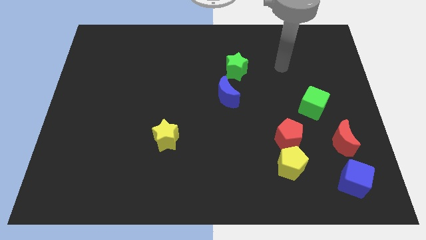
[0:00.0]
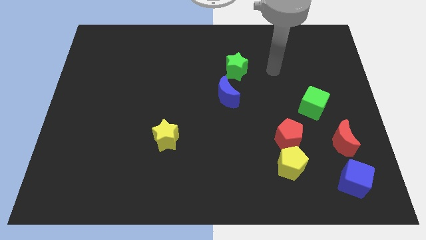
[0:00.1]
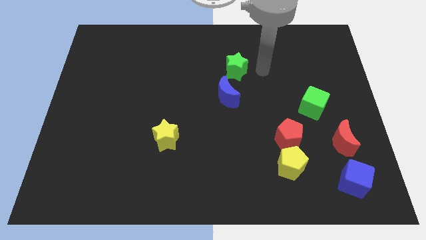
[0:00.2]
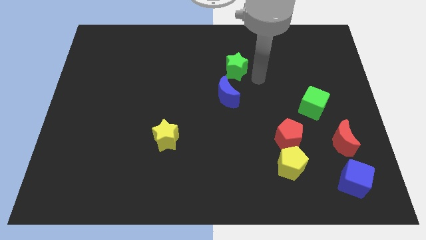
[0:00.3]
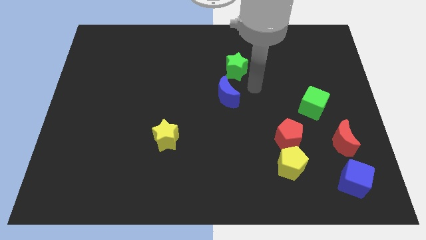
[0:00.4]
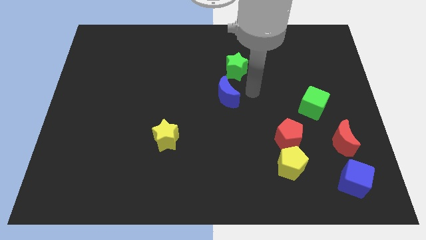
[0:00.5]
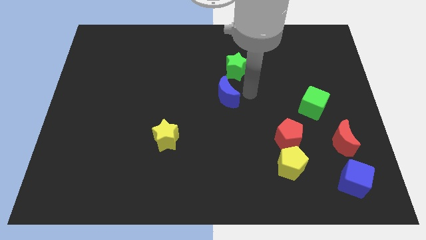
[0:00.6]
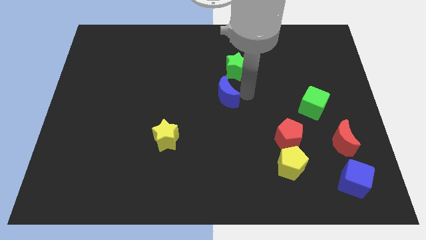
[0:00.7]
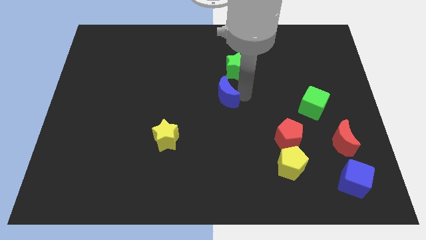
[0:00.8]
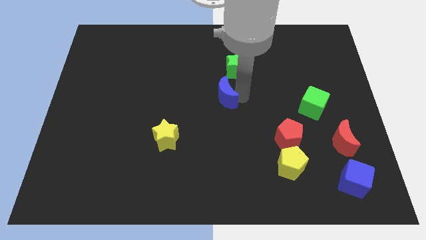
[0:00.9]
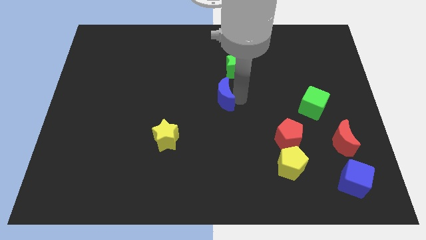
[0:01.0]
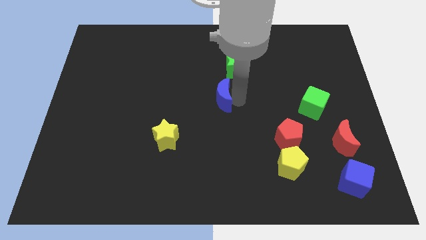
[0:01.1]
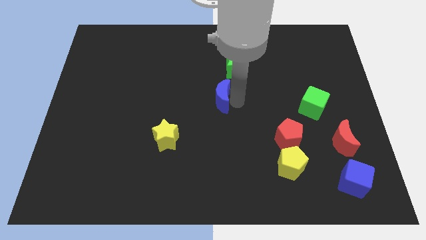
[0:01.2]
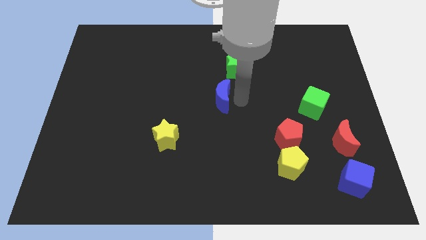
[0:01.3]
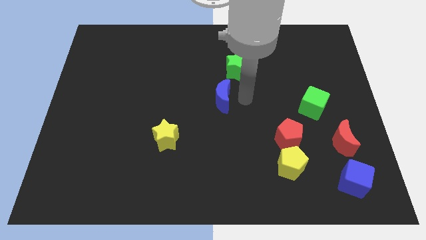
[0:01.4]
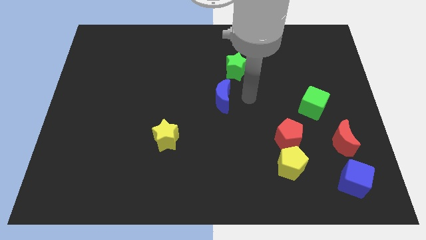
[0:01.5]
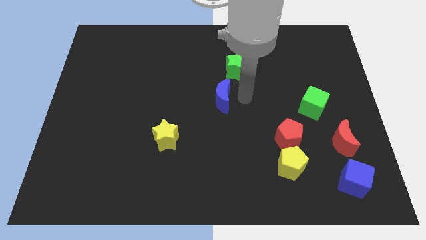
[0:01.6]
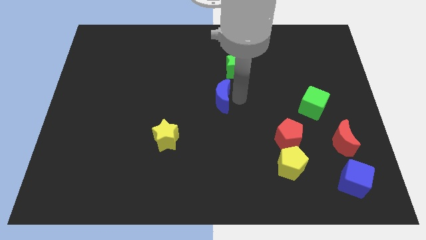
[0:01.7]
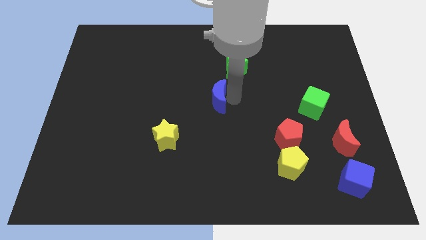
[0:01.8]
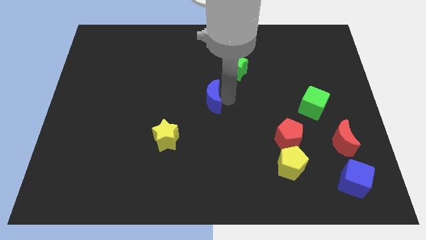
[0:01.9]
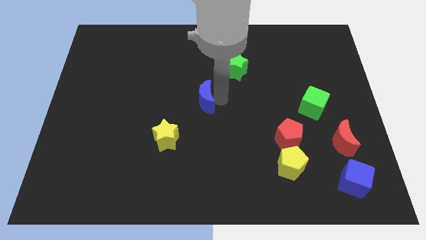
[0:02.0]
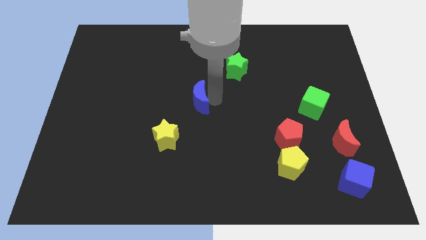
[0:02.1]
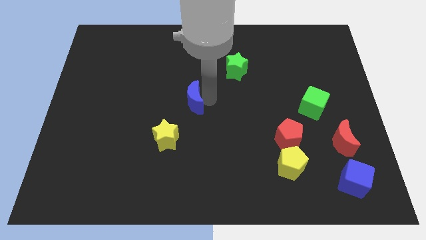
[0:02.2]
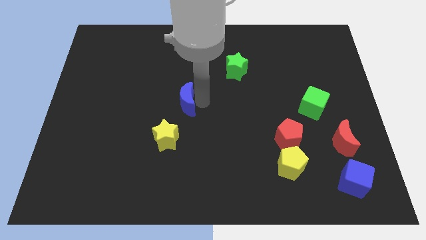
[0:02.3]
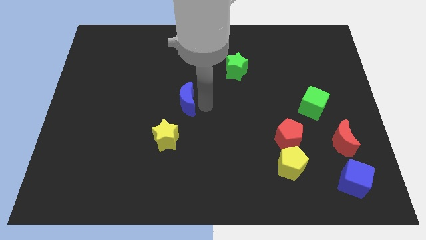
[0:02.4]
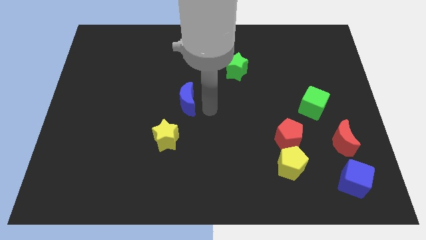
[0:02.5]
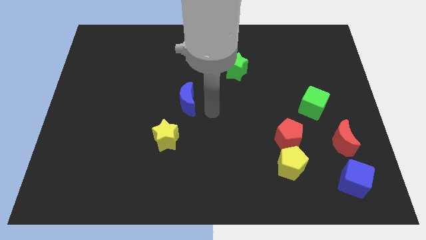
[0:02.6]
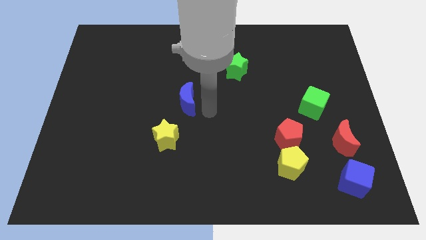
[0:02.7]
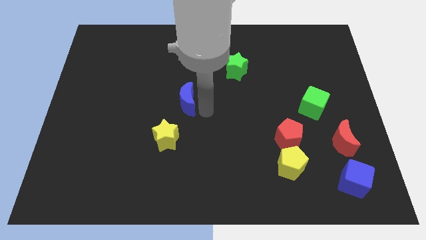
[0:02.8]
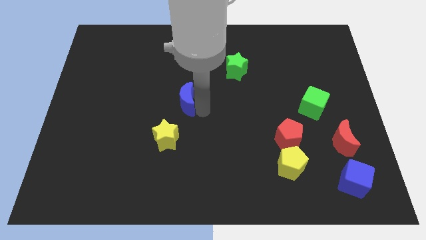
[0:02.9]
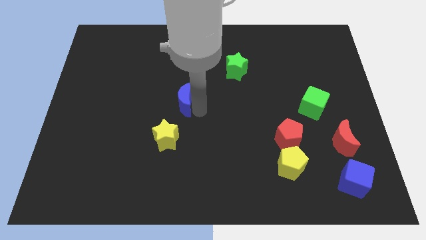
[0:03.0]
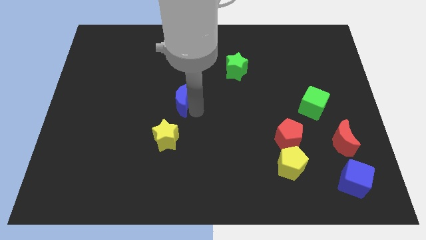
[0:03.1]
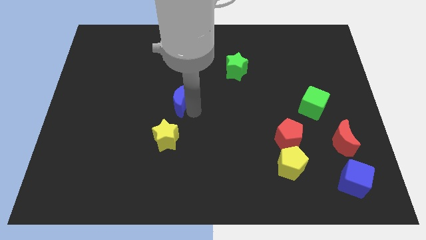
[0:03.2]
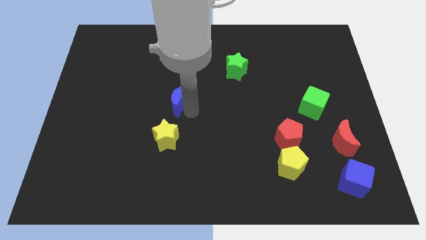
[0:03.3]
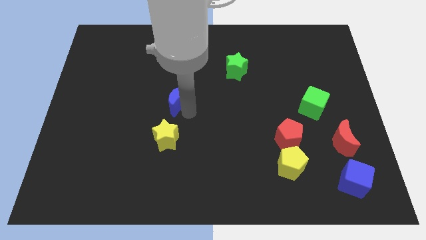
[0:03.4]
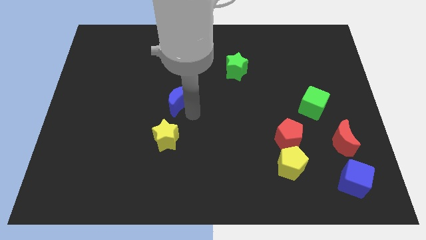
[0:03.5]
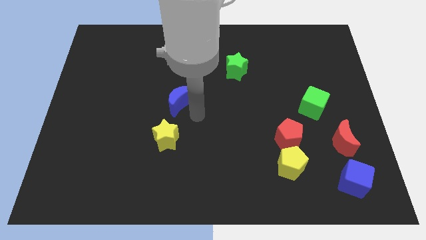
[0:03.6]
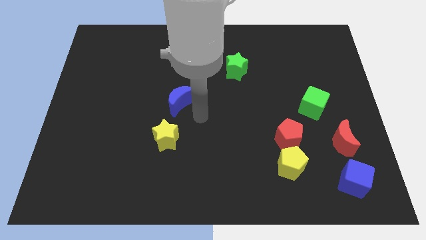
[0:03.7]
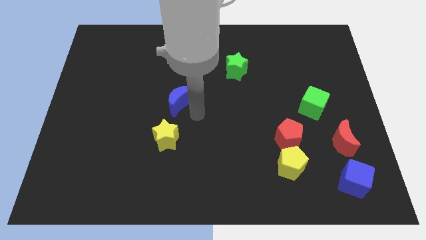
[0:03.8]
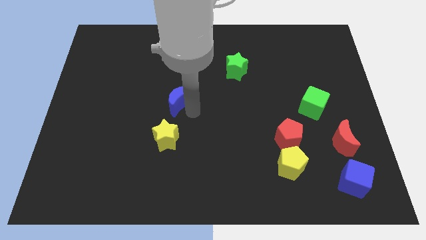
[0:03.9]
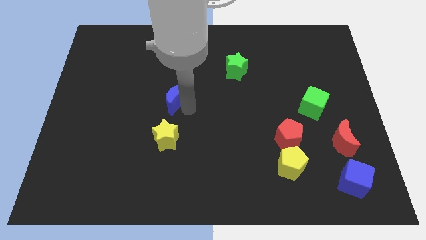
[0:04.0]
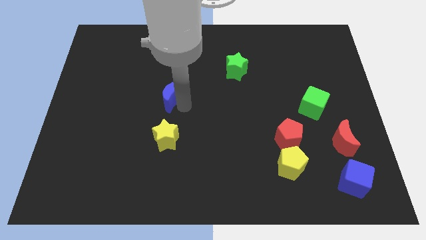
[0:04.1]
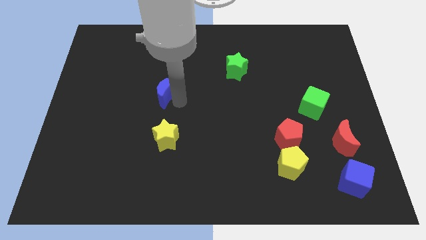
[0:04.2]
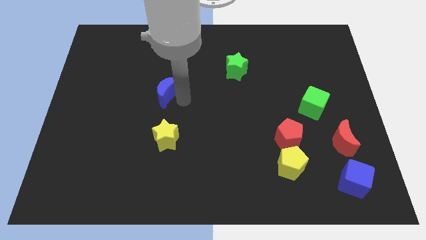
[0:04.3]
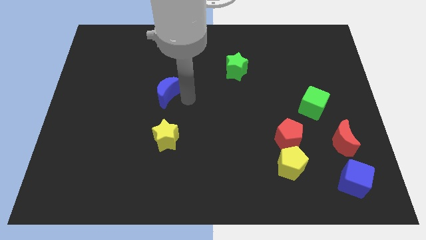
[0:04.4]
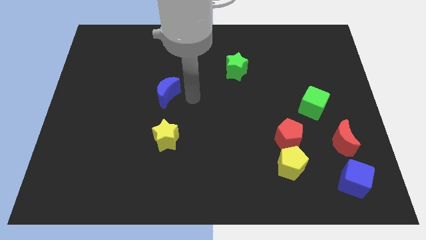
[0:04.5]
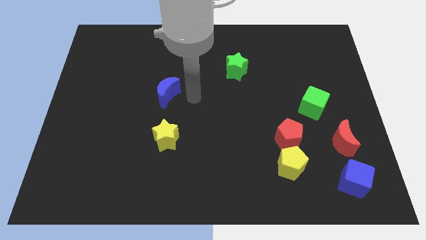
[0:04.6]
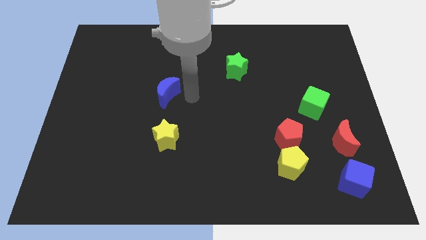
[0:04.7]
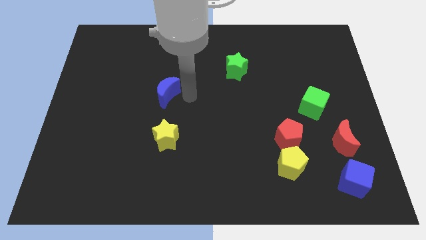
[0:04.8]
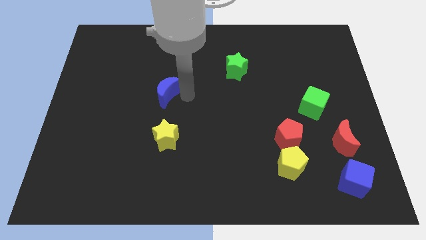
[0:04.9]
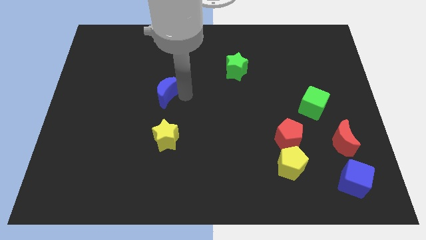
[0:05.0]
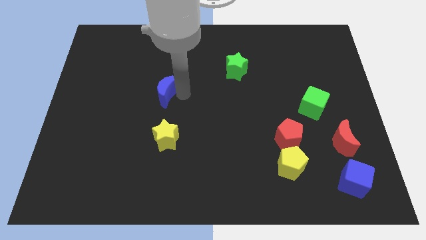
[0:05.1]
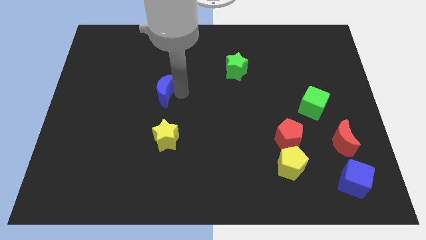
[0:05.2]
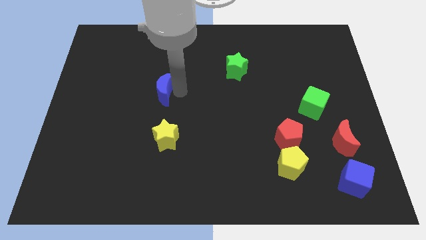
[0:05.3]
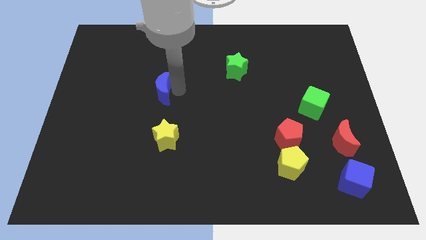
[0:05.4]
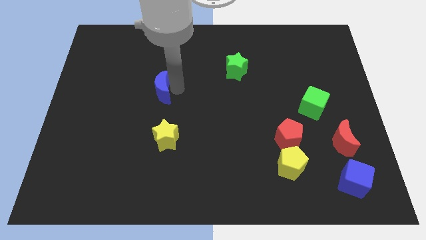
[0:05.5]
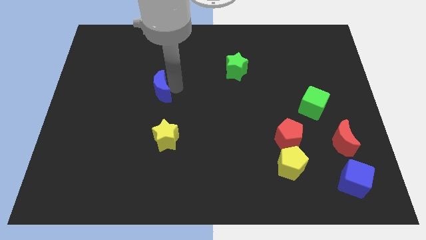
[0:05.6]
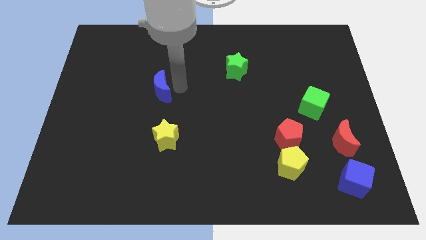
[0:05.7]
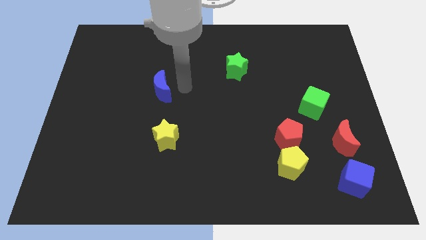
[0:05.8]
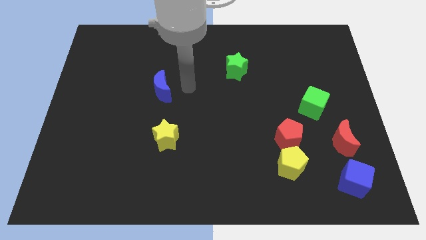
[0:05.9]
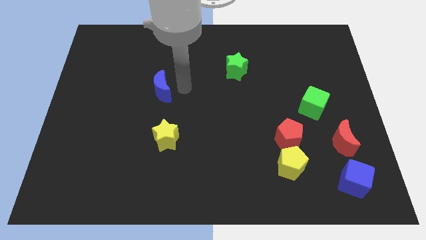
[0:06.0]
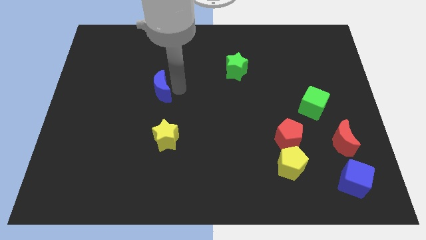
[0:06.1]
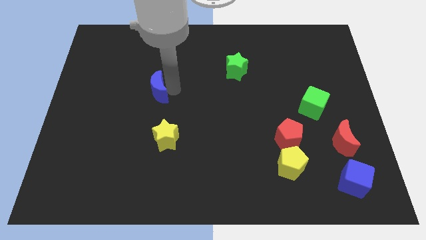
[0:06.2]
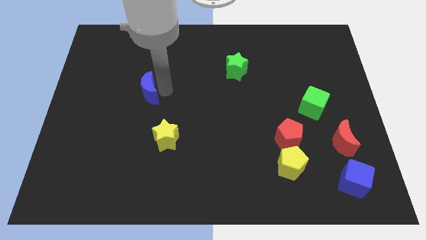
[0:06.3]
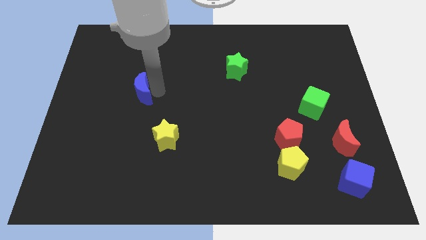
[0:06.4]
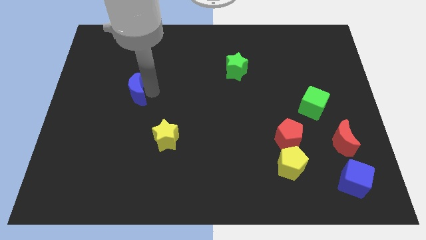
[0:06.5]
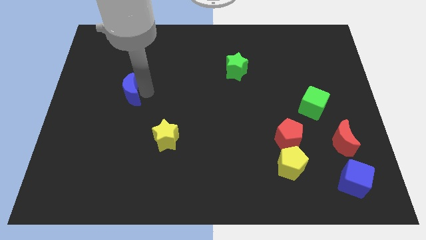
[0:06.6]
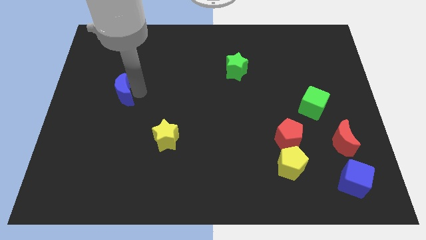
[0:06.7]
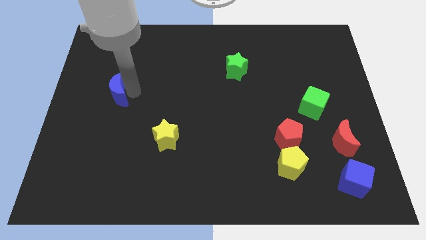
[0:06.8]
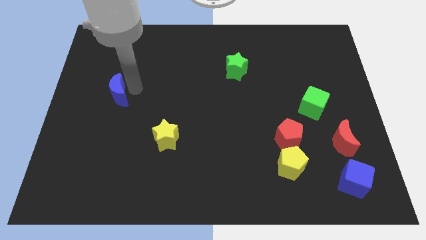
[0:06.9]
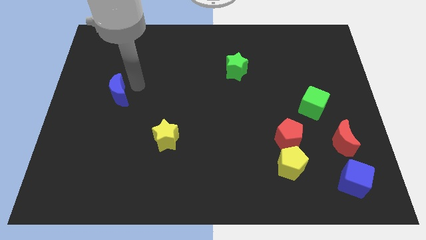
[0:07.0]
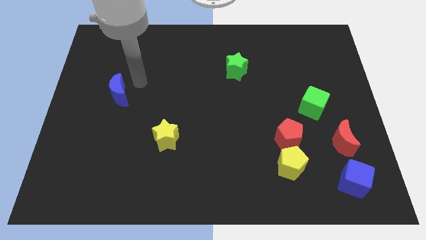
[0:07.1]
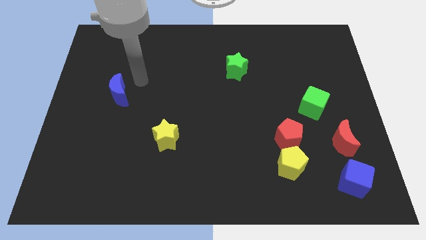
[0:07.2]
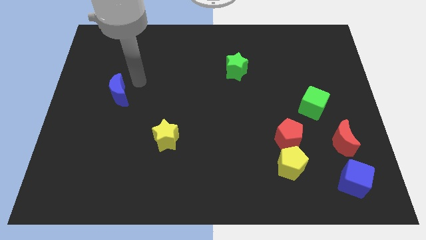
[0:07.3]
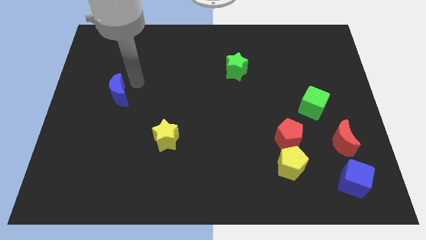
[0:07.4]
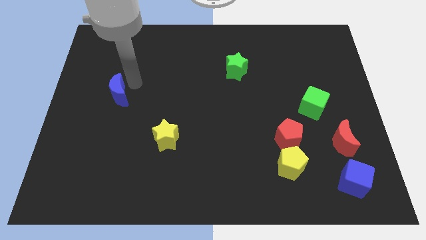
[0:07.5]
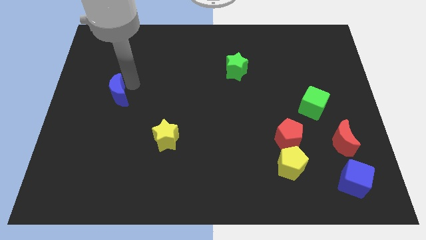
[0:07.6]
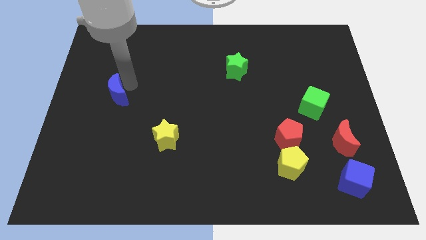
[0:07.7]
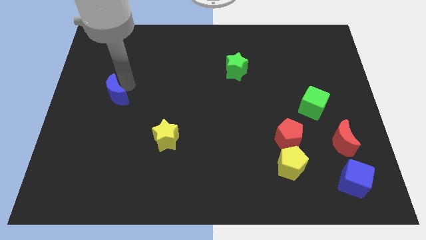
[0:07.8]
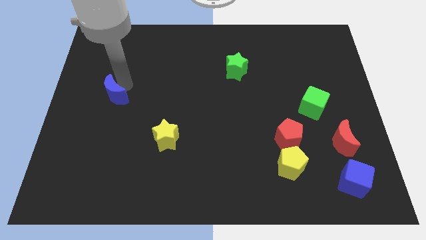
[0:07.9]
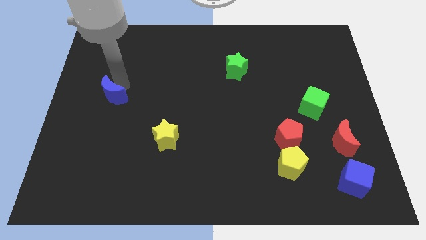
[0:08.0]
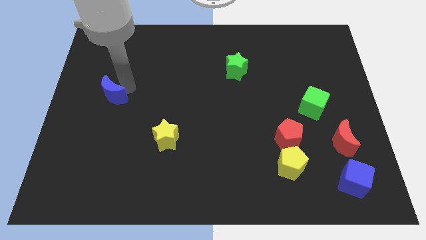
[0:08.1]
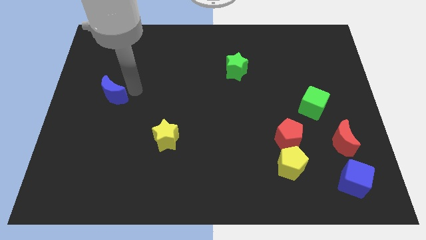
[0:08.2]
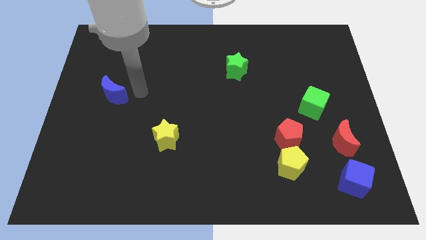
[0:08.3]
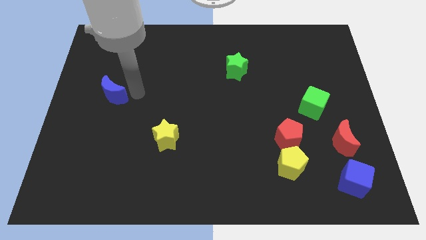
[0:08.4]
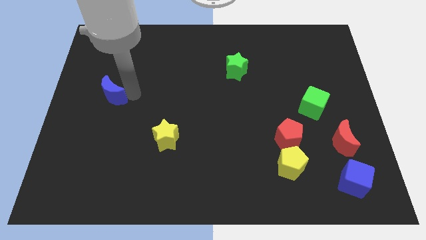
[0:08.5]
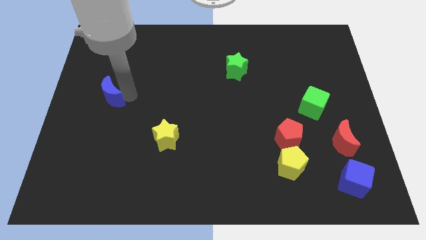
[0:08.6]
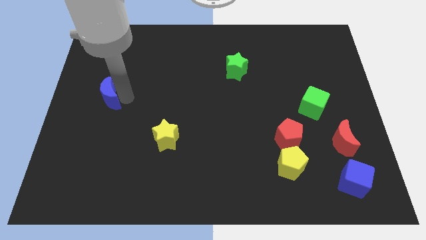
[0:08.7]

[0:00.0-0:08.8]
move the blue moon to the center left
